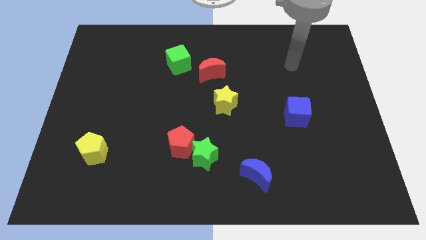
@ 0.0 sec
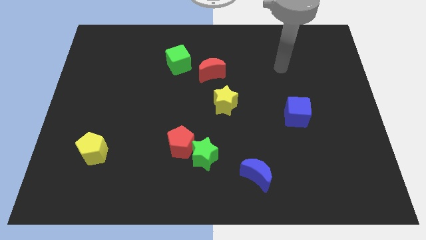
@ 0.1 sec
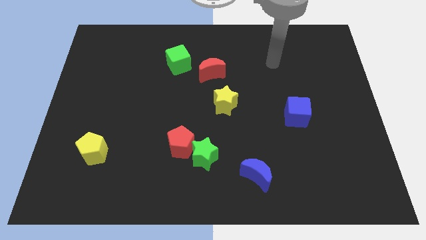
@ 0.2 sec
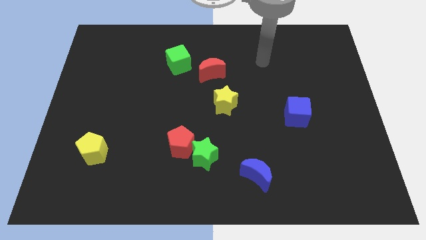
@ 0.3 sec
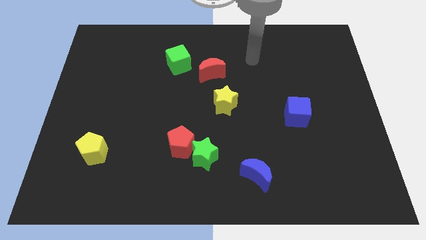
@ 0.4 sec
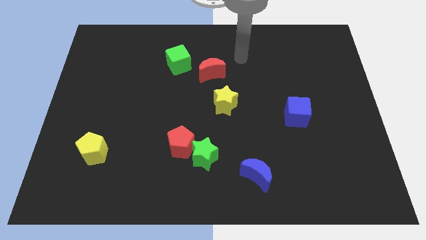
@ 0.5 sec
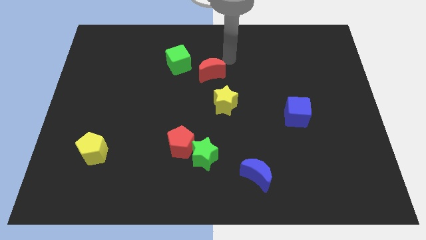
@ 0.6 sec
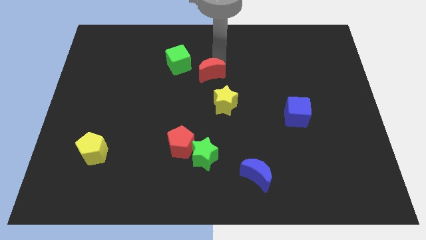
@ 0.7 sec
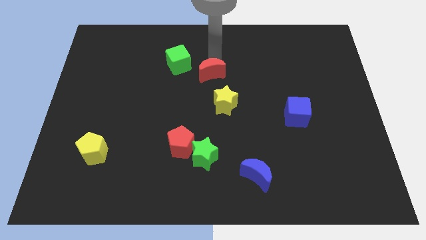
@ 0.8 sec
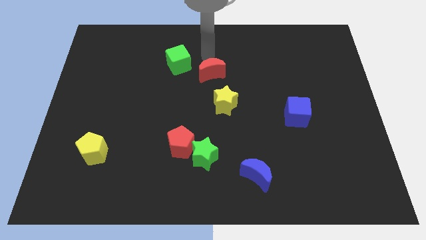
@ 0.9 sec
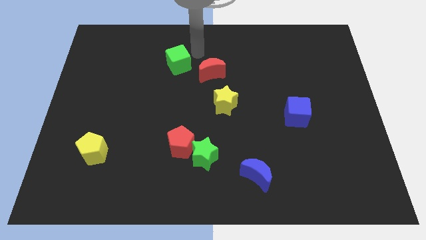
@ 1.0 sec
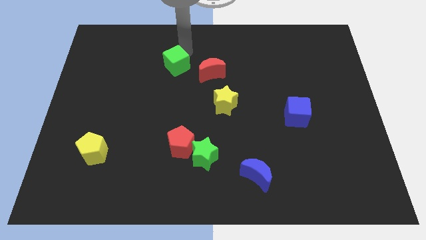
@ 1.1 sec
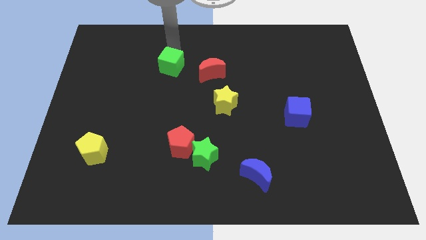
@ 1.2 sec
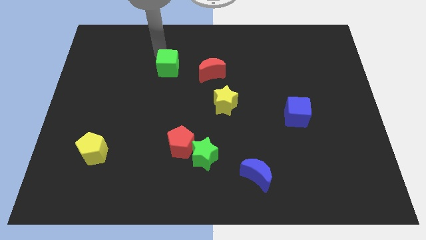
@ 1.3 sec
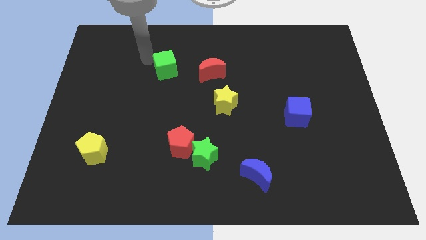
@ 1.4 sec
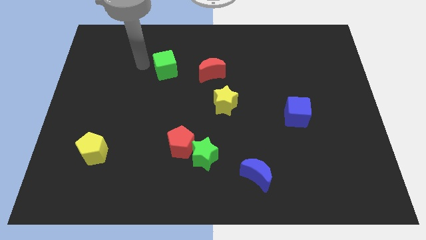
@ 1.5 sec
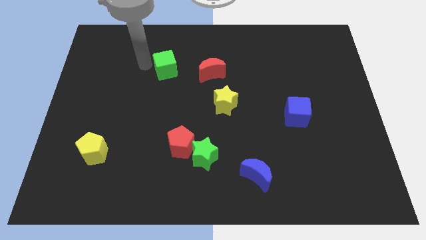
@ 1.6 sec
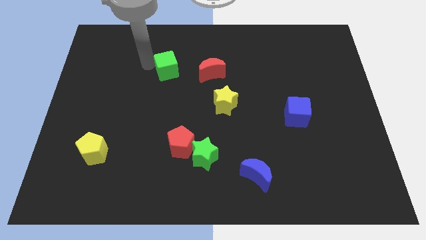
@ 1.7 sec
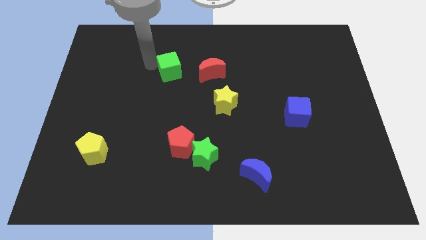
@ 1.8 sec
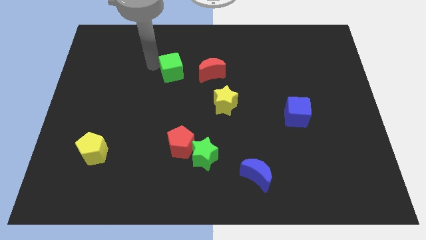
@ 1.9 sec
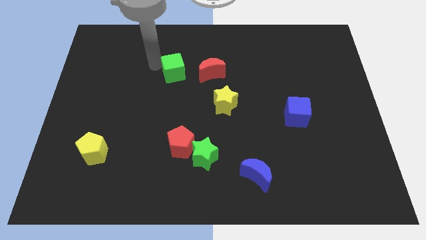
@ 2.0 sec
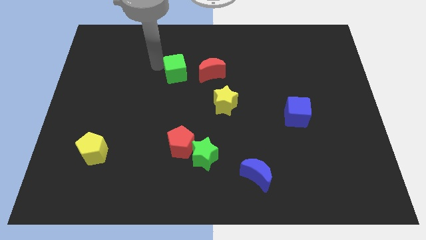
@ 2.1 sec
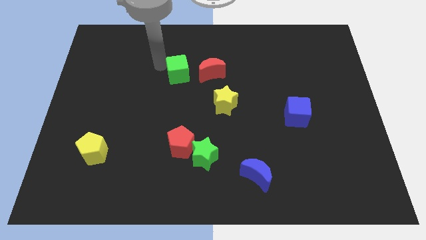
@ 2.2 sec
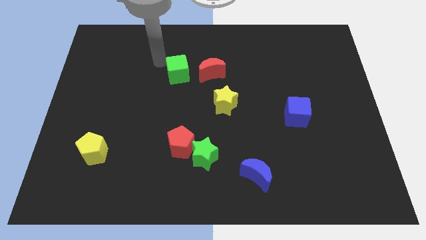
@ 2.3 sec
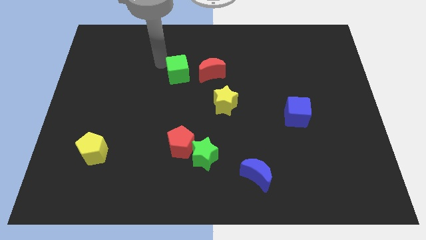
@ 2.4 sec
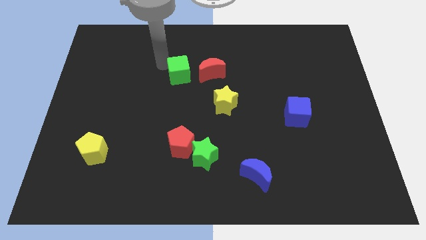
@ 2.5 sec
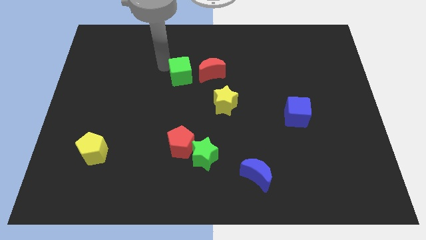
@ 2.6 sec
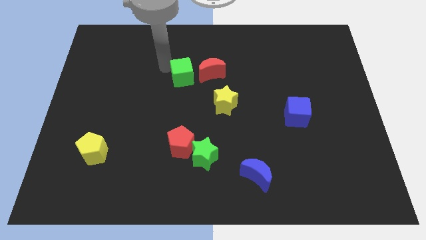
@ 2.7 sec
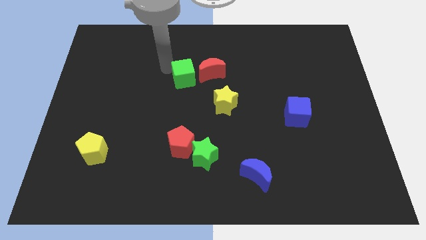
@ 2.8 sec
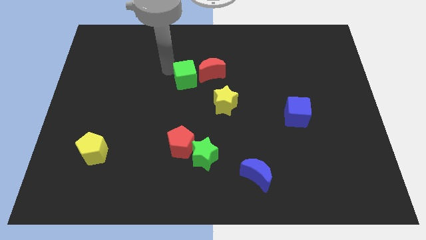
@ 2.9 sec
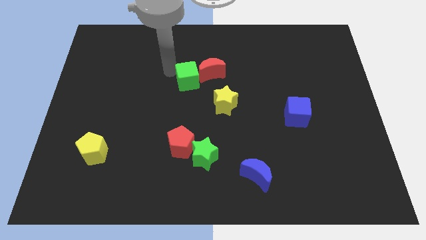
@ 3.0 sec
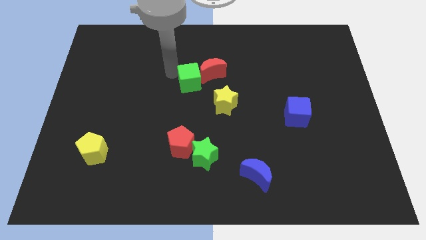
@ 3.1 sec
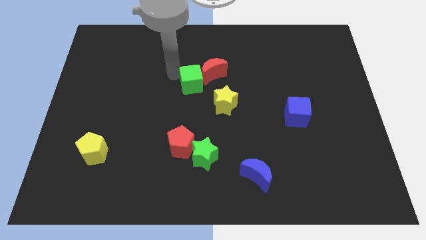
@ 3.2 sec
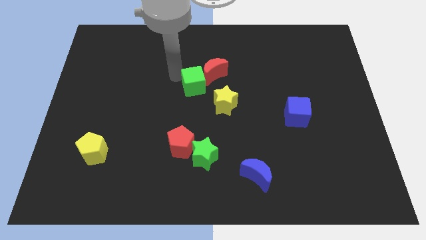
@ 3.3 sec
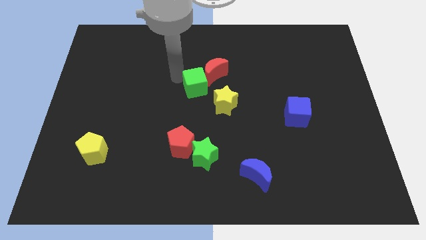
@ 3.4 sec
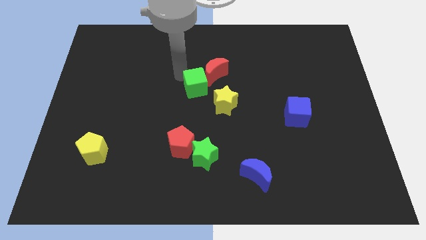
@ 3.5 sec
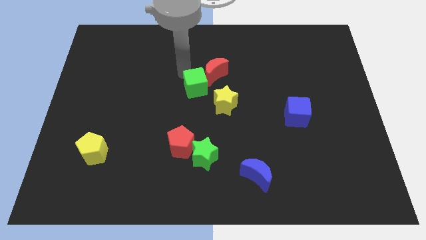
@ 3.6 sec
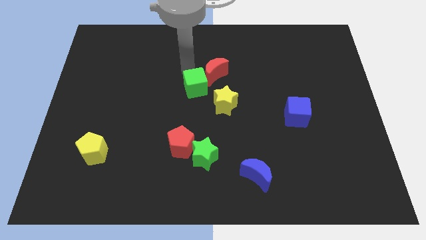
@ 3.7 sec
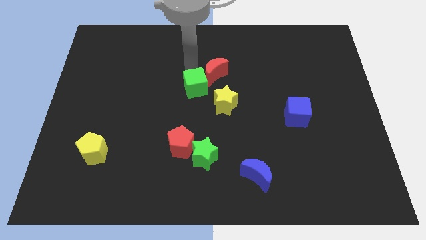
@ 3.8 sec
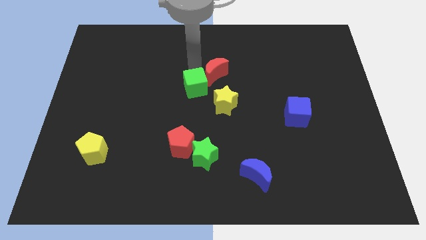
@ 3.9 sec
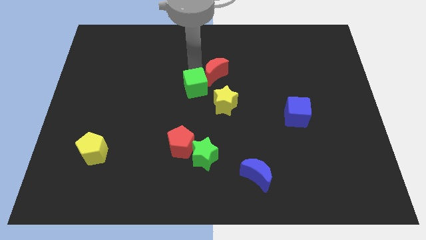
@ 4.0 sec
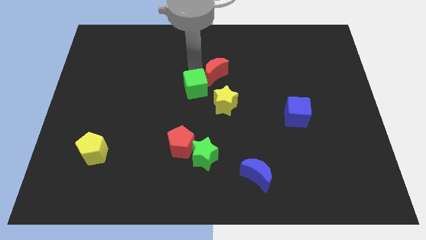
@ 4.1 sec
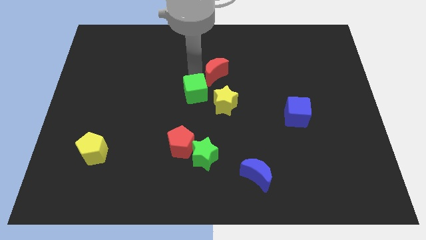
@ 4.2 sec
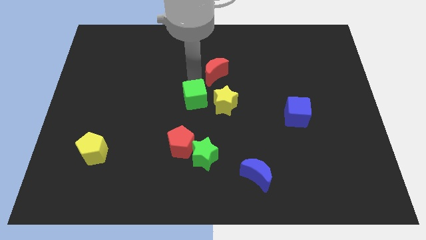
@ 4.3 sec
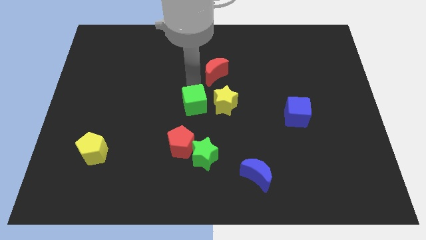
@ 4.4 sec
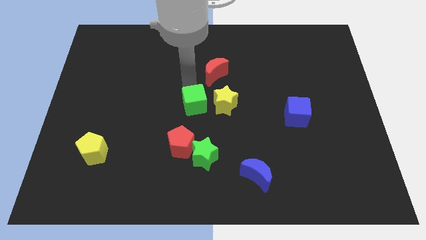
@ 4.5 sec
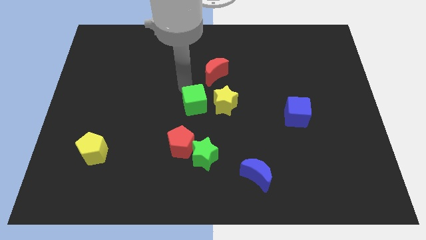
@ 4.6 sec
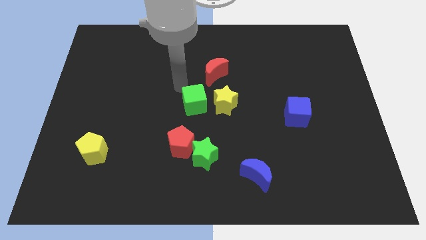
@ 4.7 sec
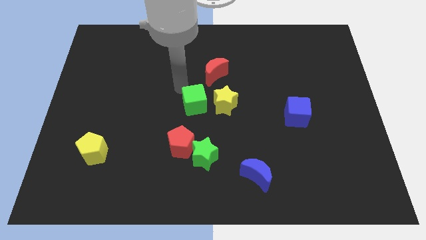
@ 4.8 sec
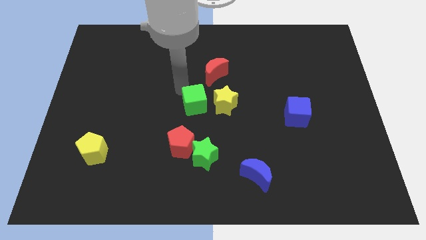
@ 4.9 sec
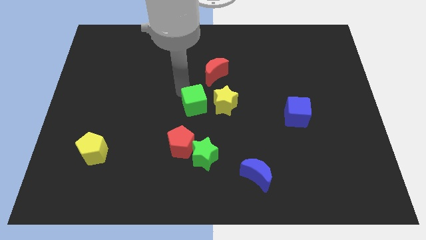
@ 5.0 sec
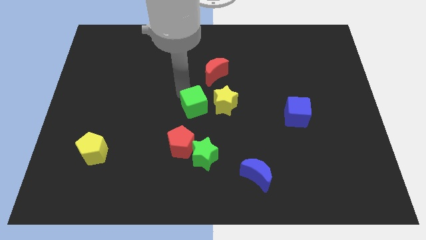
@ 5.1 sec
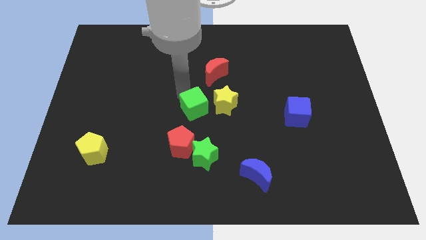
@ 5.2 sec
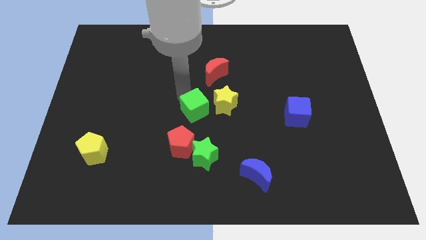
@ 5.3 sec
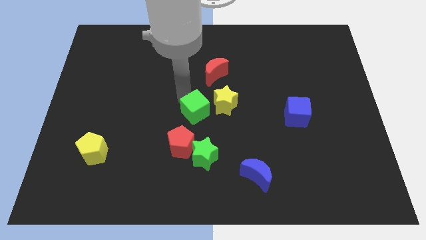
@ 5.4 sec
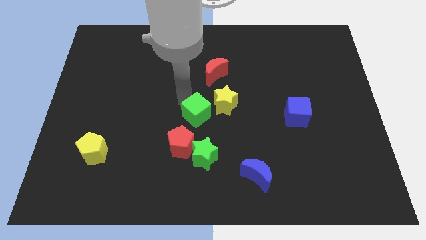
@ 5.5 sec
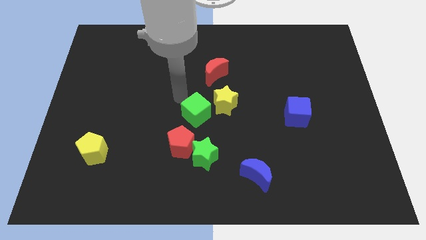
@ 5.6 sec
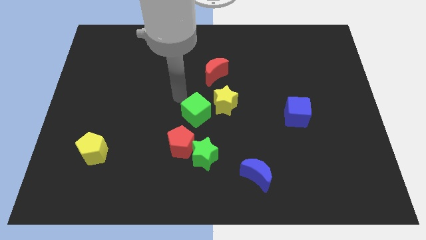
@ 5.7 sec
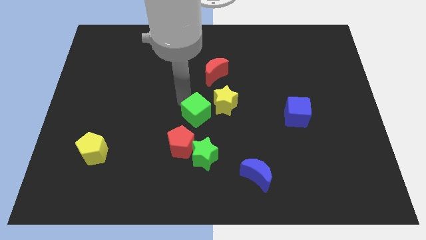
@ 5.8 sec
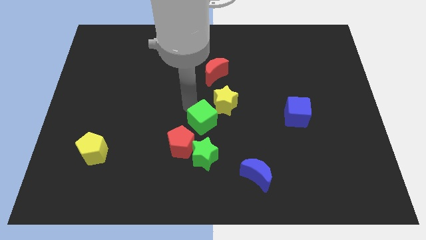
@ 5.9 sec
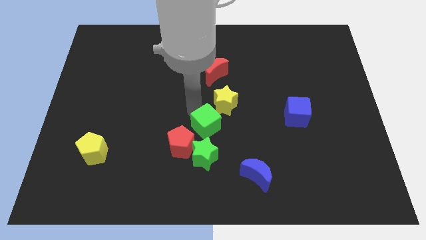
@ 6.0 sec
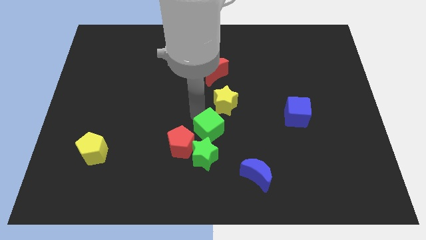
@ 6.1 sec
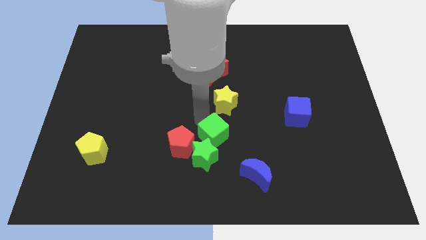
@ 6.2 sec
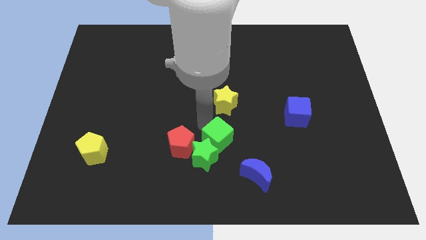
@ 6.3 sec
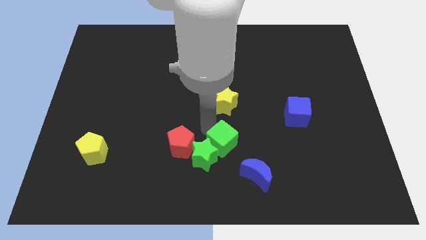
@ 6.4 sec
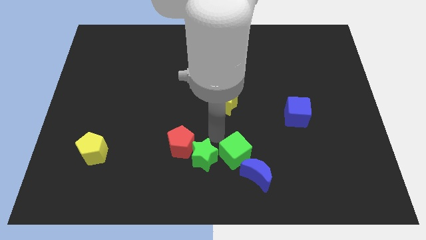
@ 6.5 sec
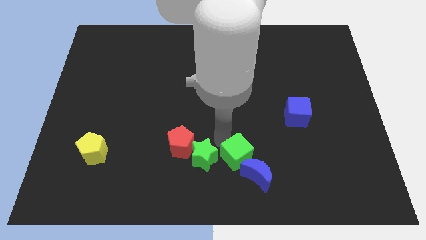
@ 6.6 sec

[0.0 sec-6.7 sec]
slide the green cube close to the blue moon
